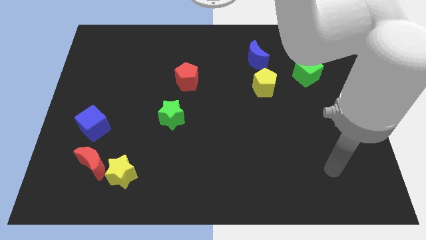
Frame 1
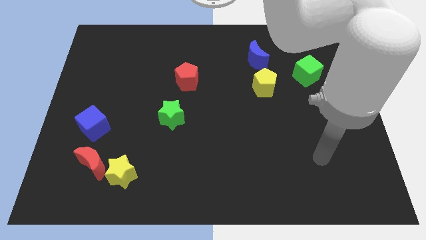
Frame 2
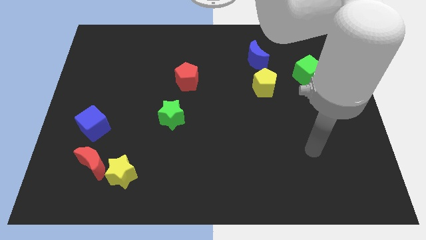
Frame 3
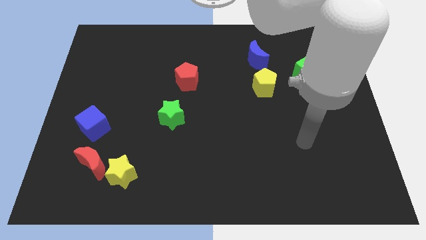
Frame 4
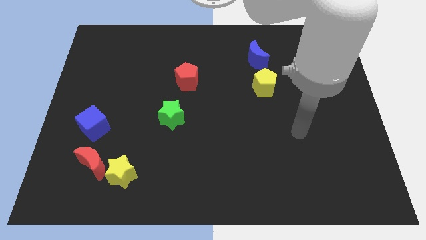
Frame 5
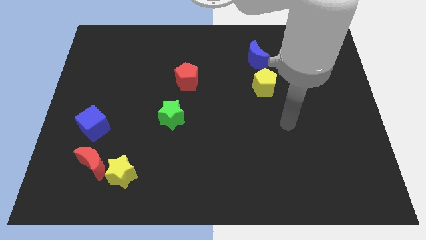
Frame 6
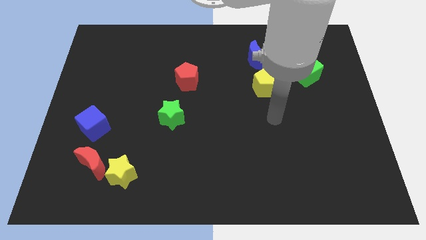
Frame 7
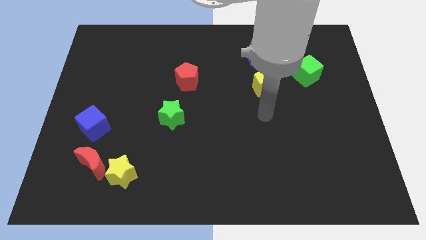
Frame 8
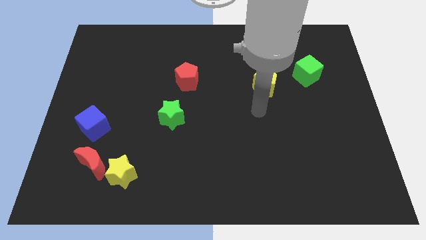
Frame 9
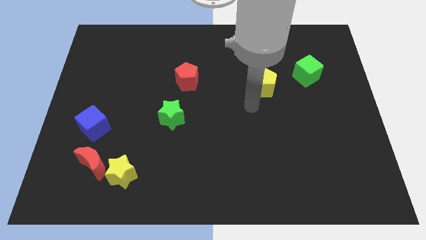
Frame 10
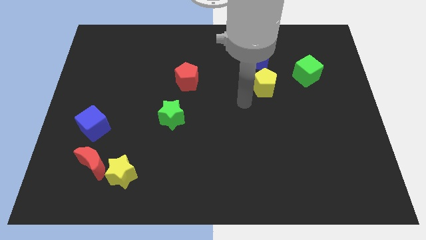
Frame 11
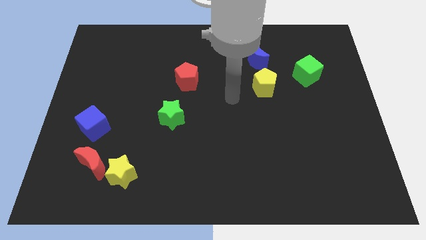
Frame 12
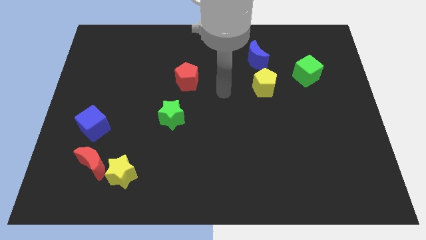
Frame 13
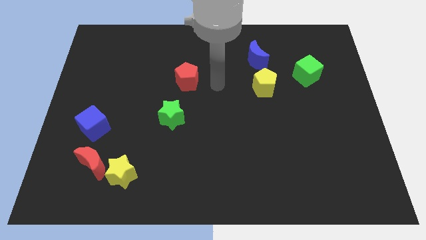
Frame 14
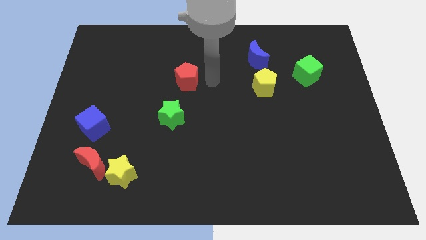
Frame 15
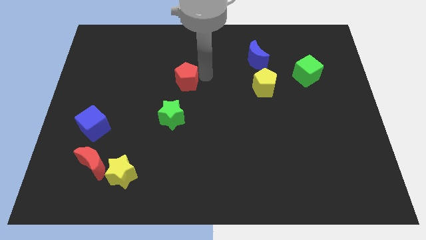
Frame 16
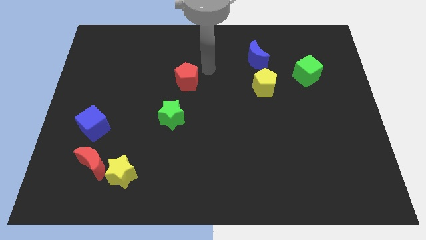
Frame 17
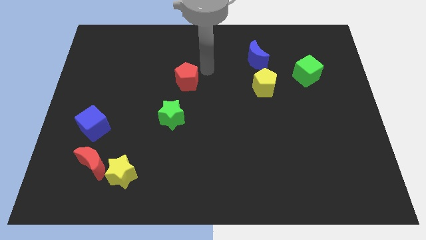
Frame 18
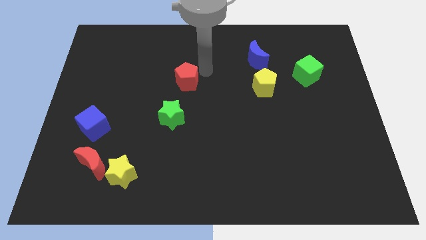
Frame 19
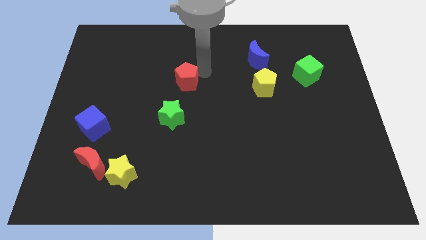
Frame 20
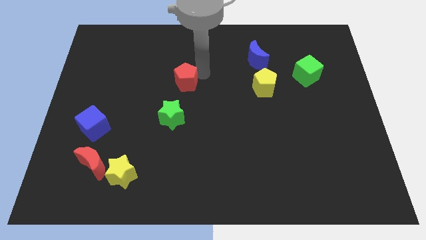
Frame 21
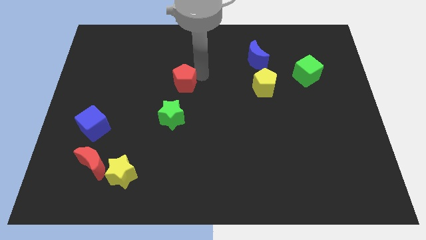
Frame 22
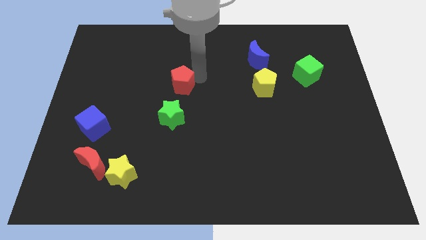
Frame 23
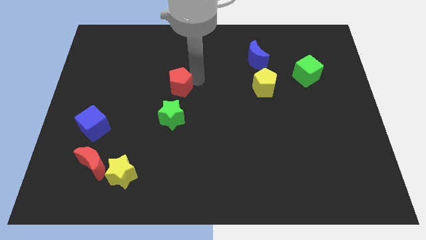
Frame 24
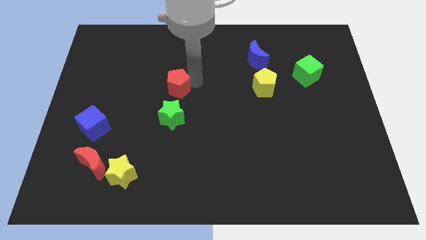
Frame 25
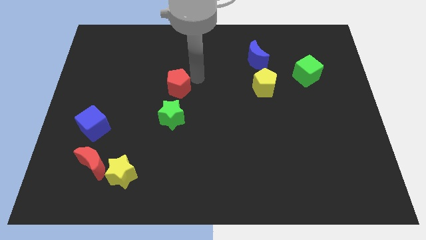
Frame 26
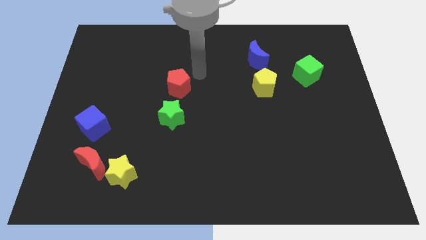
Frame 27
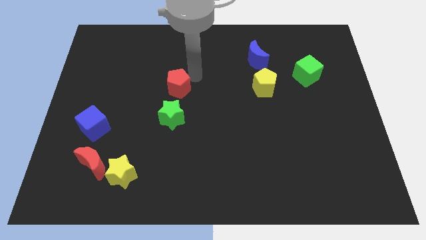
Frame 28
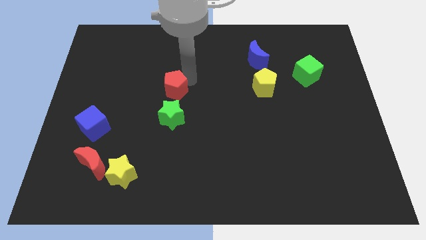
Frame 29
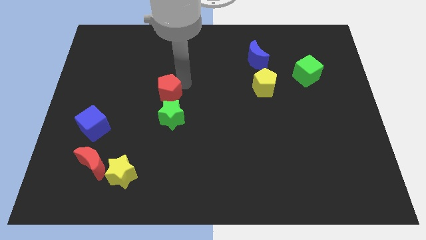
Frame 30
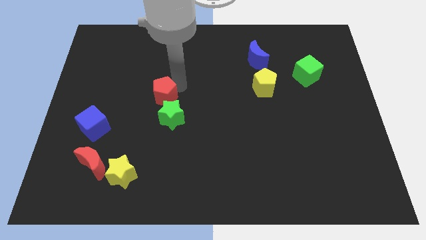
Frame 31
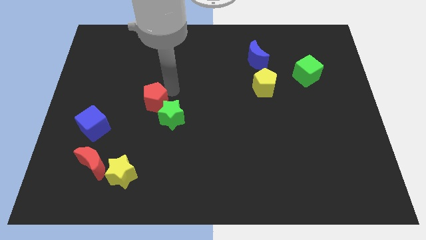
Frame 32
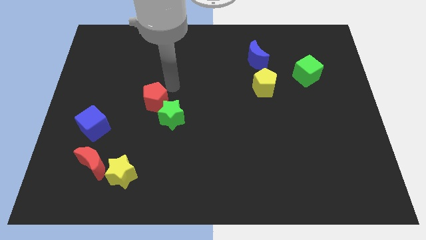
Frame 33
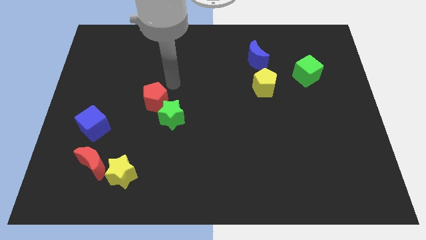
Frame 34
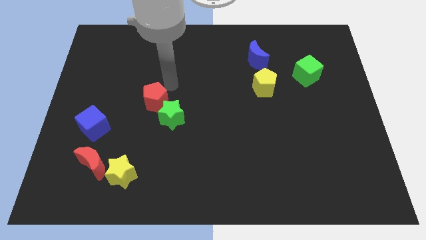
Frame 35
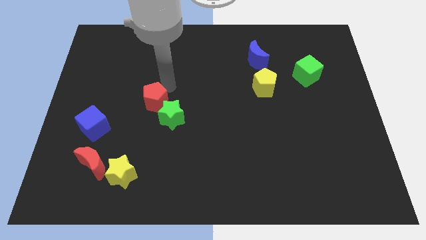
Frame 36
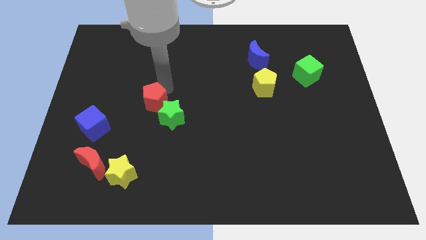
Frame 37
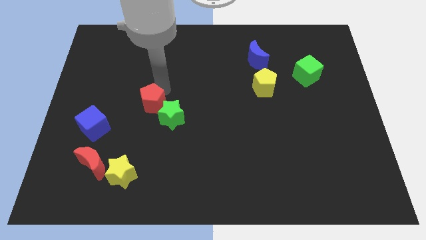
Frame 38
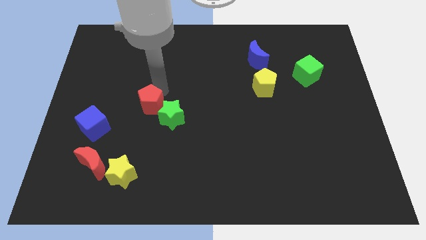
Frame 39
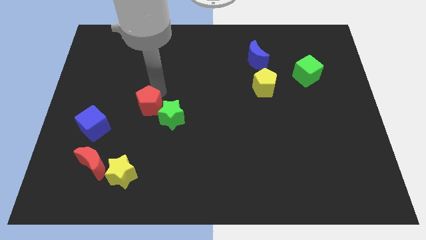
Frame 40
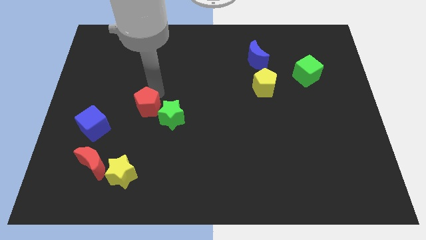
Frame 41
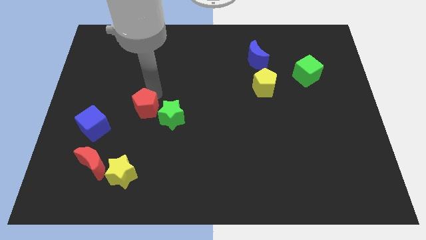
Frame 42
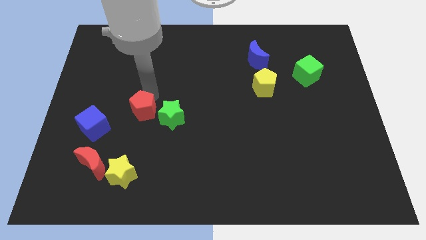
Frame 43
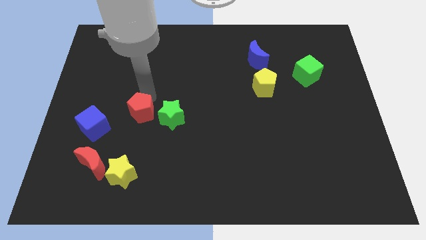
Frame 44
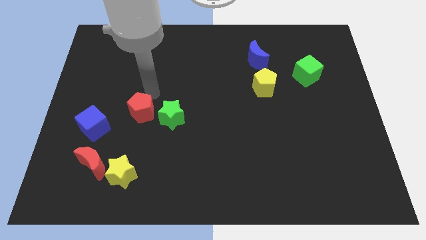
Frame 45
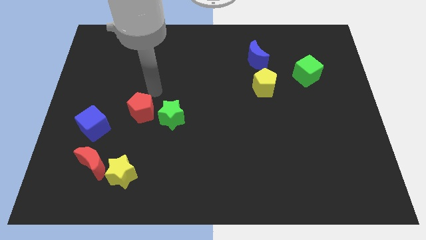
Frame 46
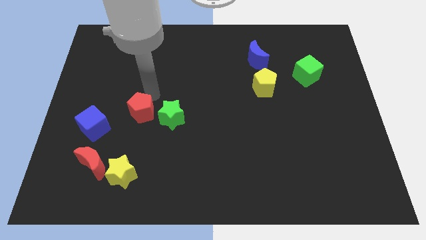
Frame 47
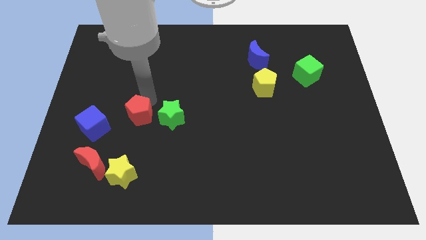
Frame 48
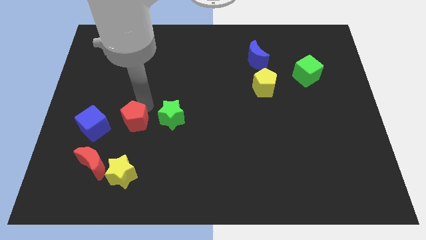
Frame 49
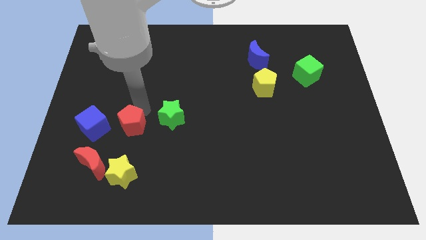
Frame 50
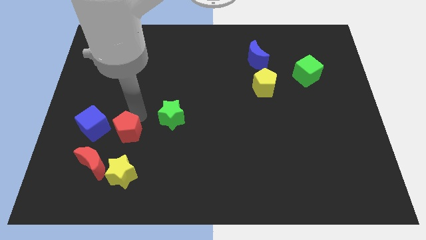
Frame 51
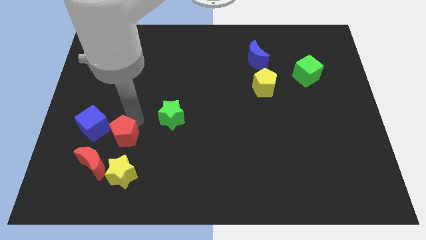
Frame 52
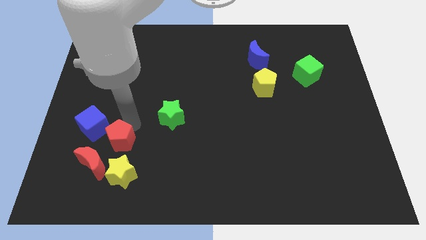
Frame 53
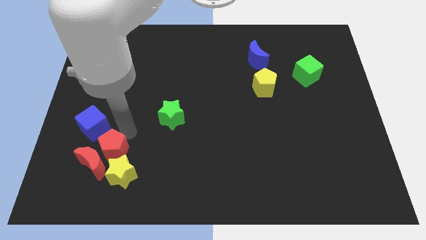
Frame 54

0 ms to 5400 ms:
move the red pentagon next to the red moon

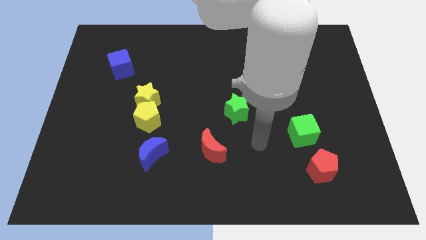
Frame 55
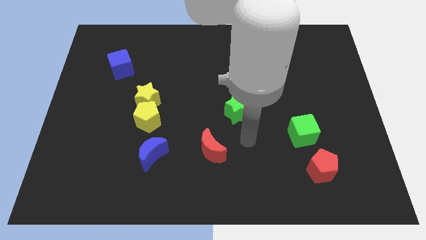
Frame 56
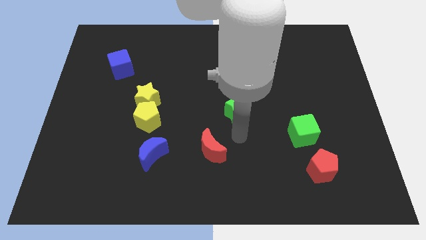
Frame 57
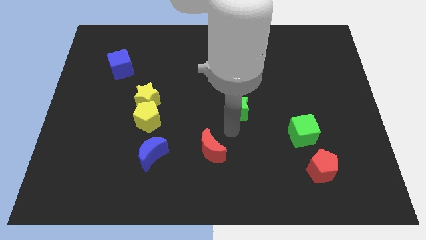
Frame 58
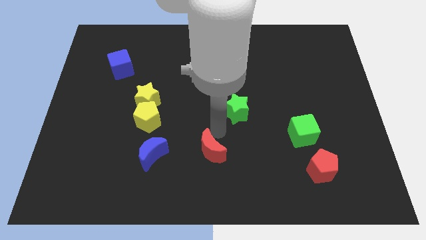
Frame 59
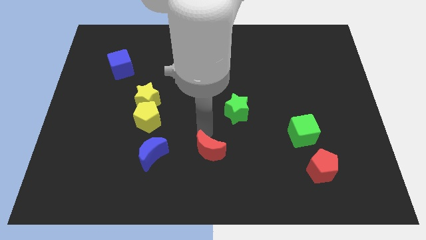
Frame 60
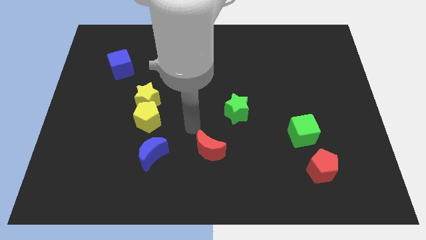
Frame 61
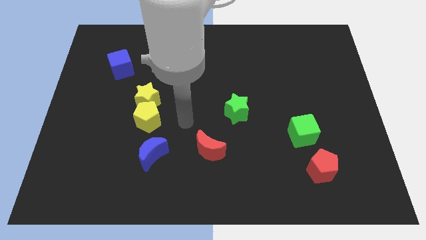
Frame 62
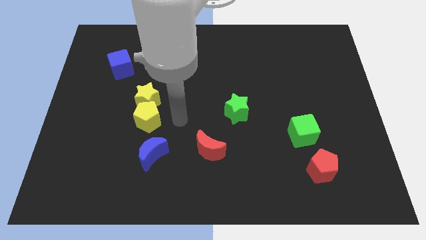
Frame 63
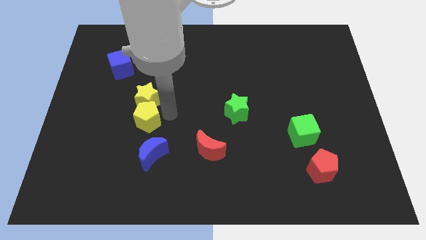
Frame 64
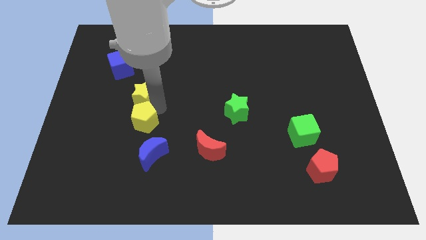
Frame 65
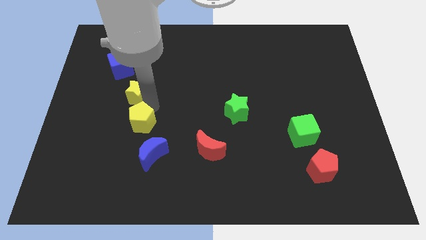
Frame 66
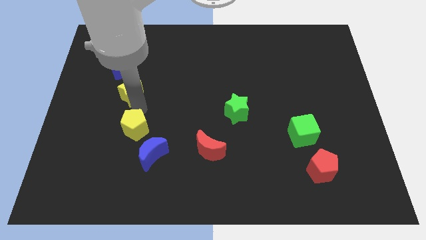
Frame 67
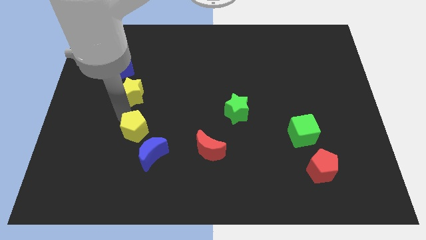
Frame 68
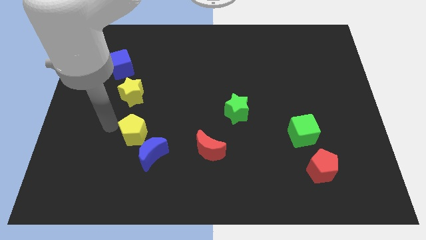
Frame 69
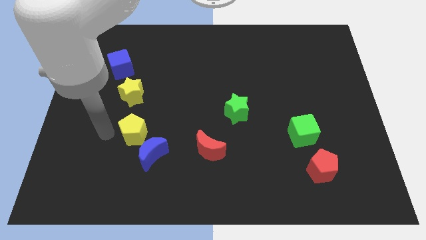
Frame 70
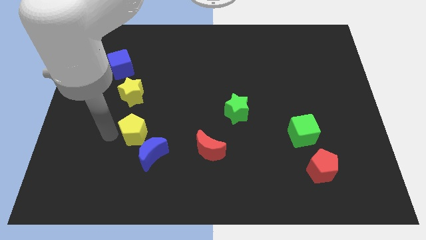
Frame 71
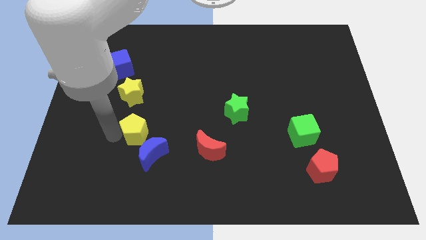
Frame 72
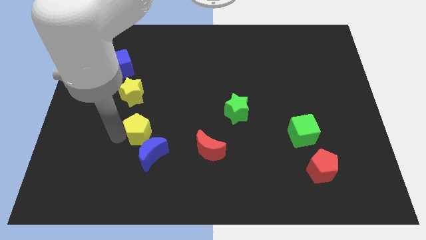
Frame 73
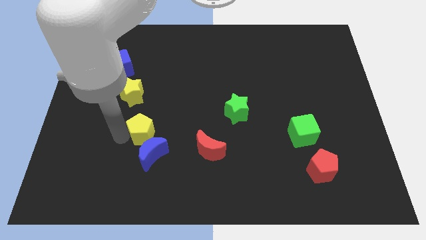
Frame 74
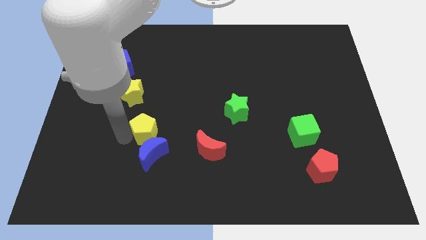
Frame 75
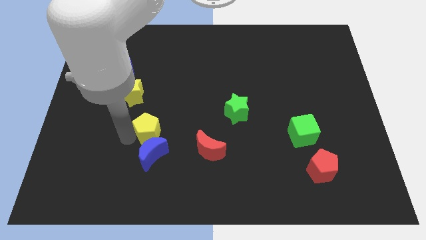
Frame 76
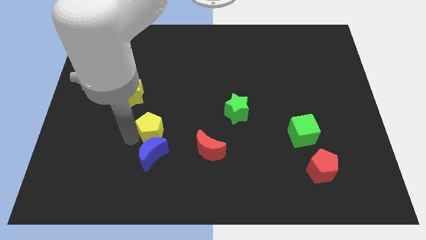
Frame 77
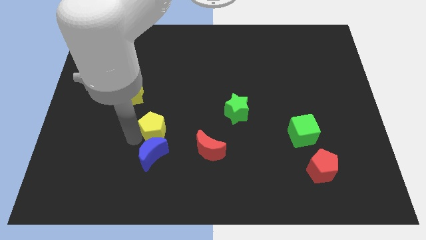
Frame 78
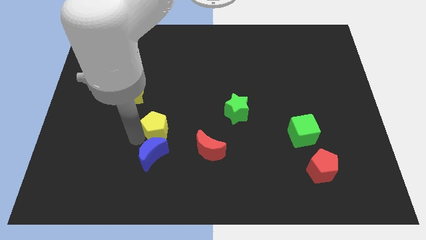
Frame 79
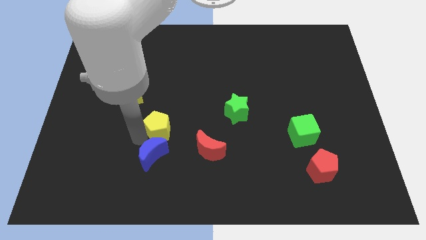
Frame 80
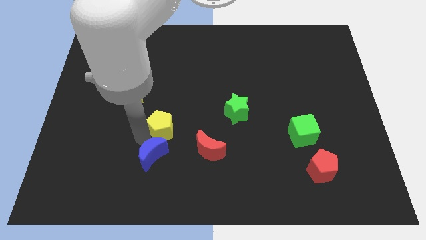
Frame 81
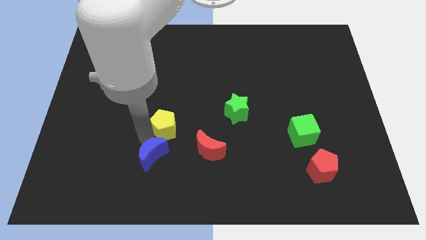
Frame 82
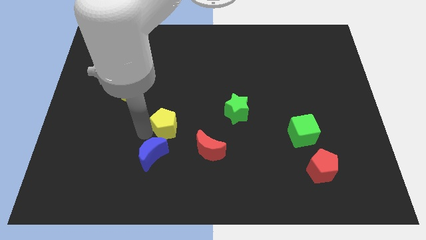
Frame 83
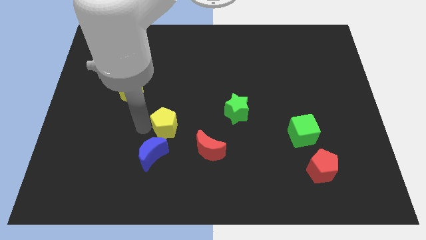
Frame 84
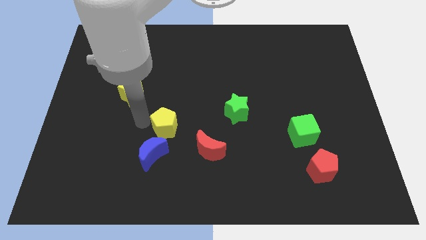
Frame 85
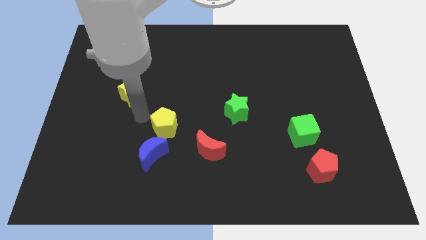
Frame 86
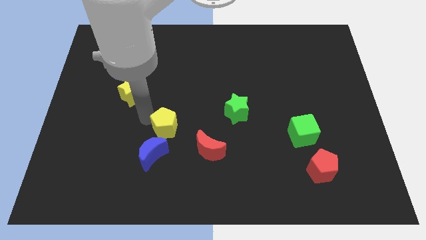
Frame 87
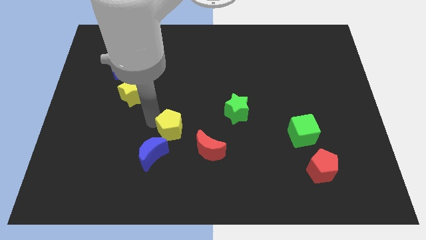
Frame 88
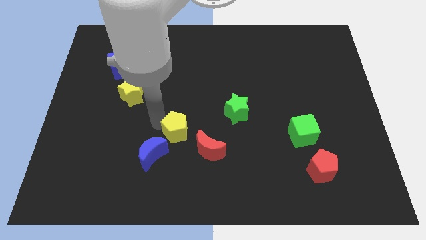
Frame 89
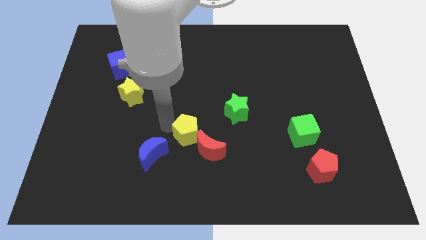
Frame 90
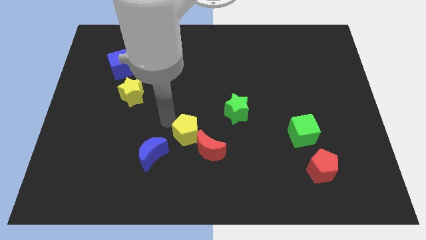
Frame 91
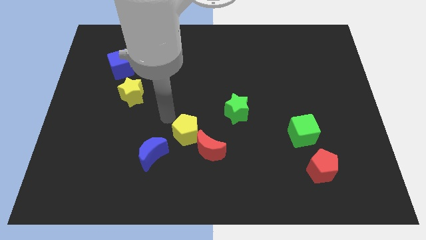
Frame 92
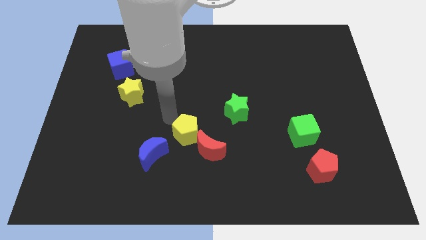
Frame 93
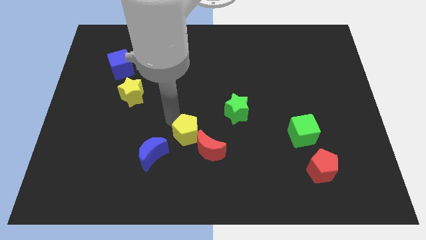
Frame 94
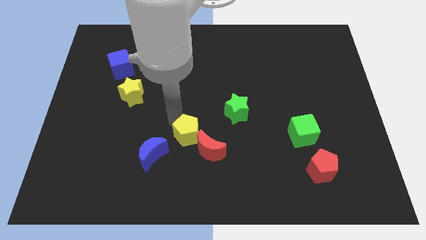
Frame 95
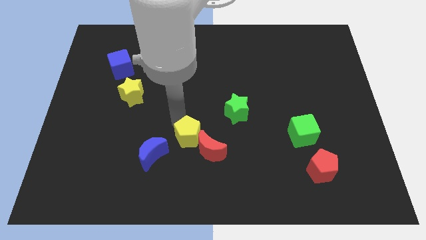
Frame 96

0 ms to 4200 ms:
push the yellow pentagon close to the red moon
